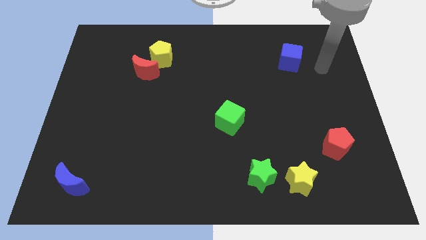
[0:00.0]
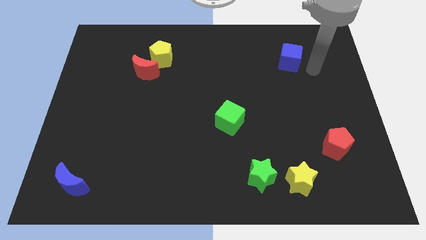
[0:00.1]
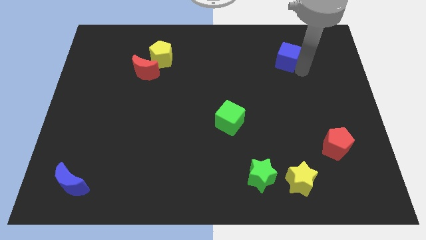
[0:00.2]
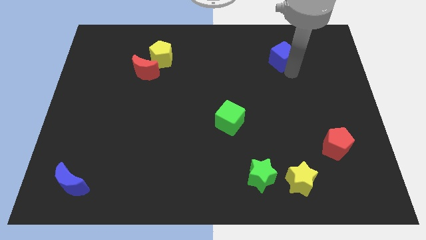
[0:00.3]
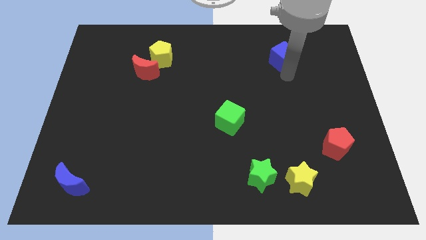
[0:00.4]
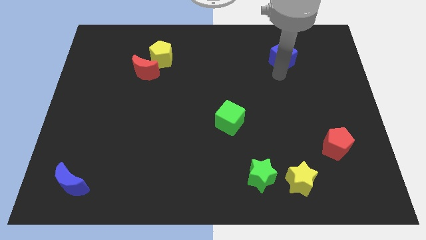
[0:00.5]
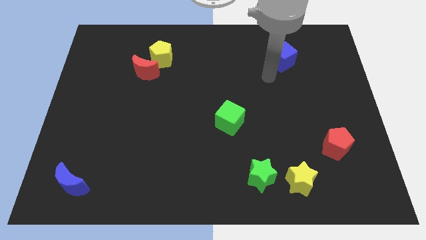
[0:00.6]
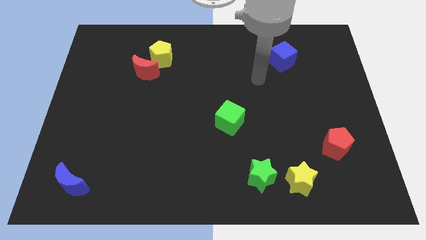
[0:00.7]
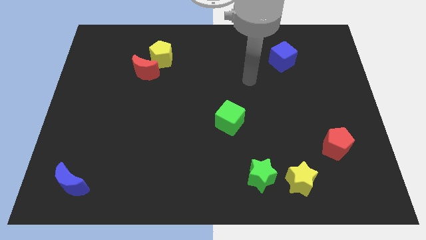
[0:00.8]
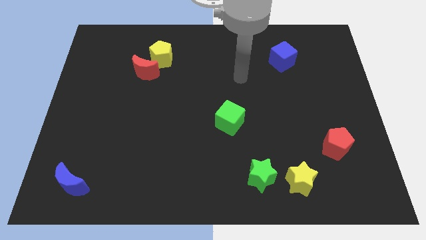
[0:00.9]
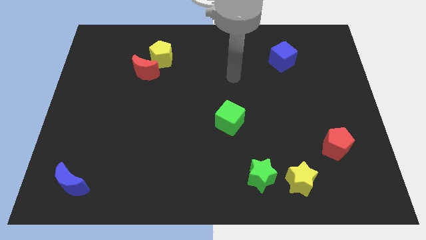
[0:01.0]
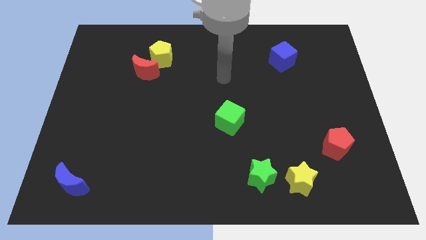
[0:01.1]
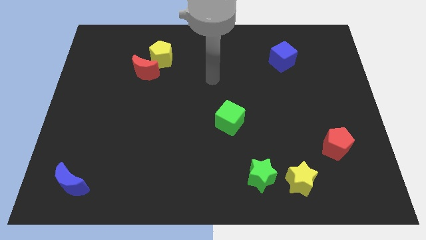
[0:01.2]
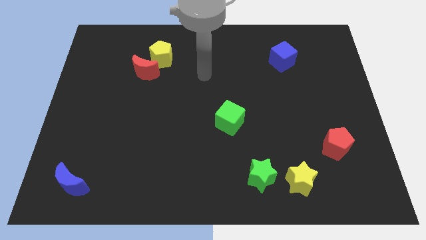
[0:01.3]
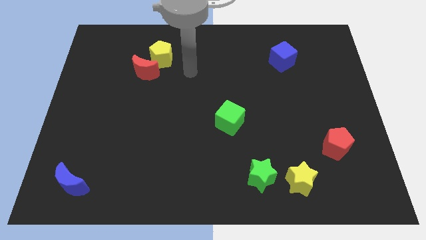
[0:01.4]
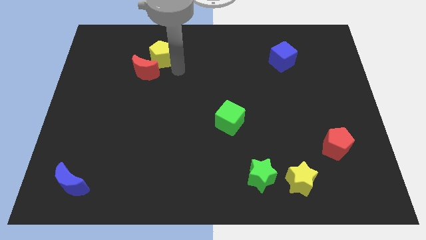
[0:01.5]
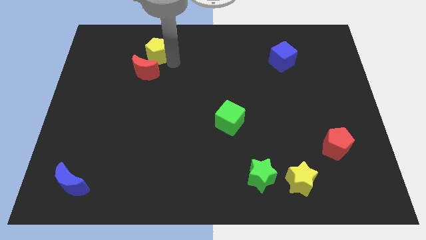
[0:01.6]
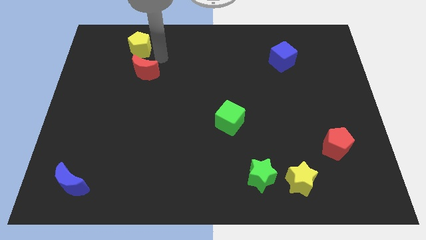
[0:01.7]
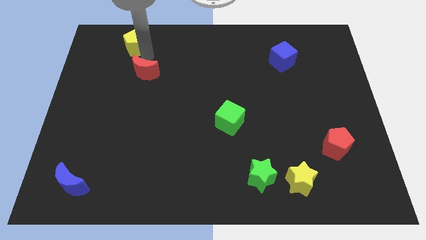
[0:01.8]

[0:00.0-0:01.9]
pull the red moon apart from the yellow pentagon

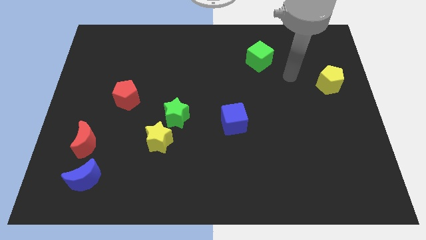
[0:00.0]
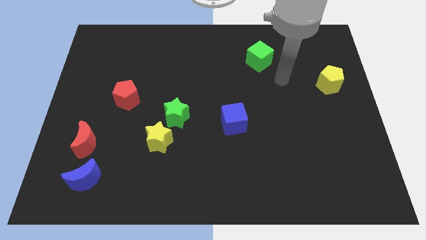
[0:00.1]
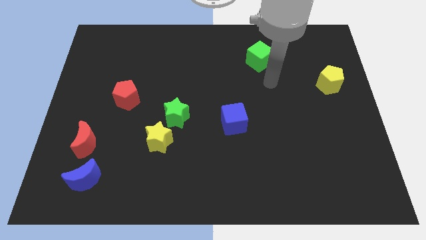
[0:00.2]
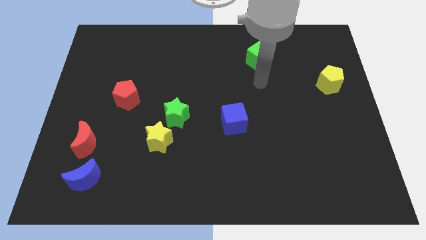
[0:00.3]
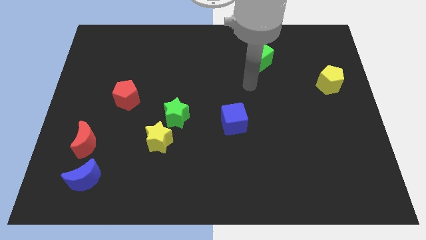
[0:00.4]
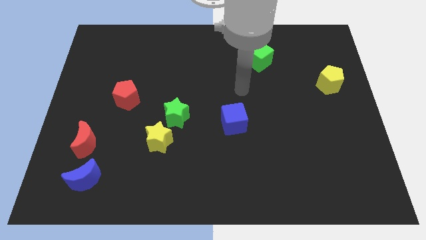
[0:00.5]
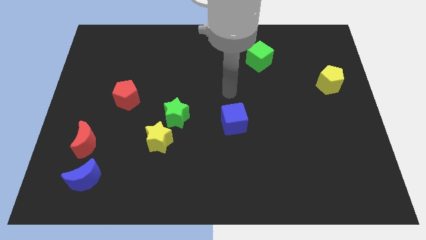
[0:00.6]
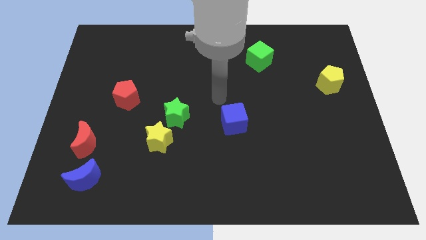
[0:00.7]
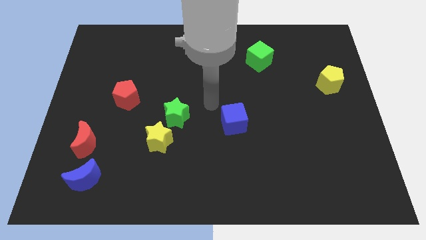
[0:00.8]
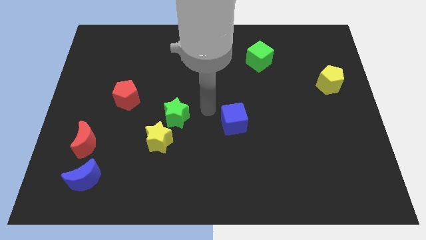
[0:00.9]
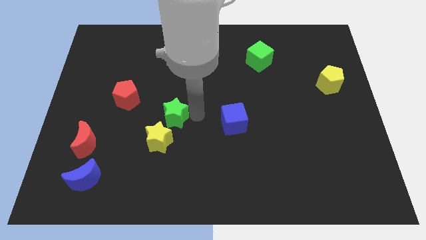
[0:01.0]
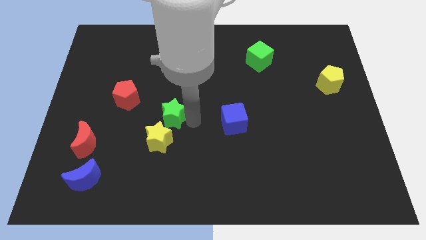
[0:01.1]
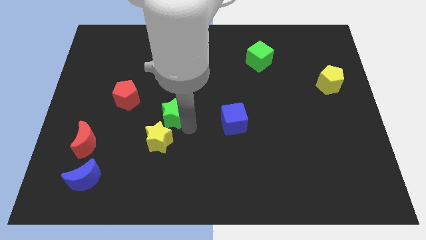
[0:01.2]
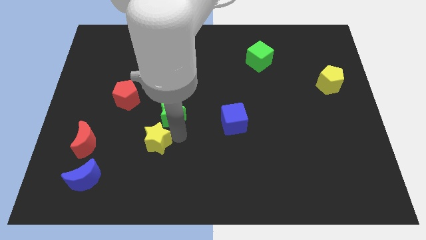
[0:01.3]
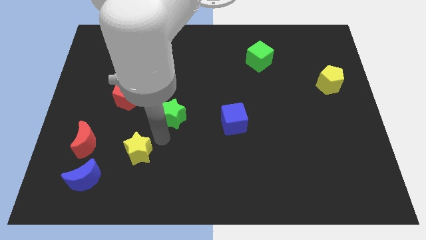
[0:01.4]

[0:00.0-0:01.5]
separate the green star from the yellow star

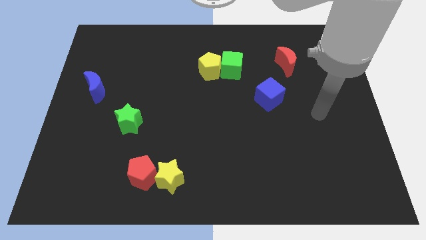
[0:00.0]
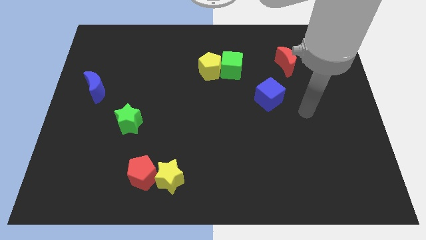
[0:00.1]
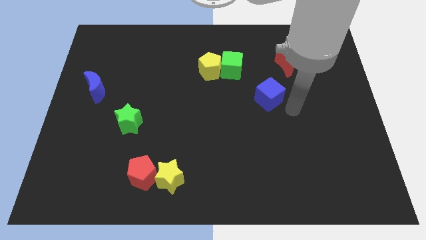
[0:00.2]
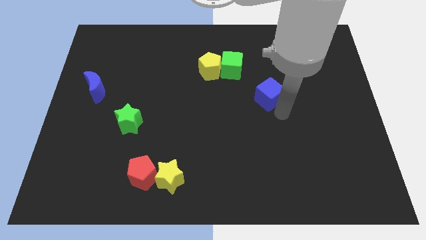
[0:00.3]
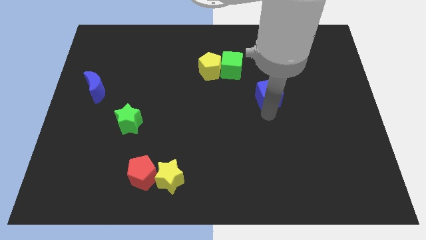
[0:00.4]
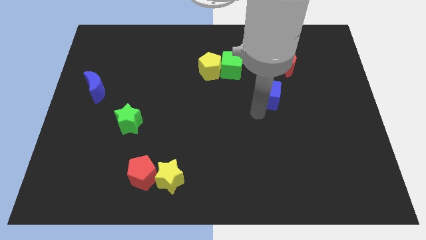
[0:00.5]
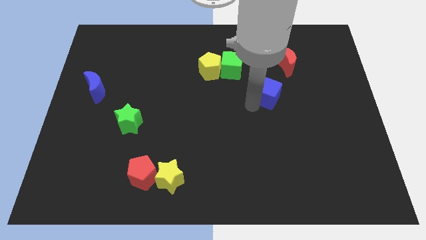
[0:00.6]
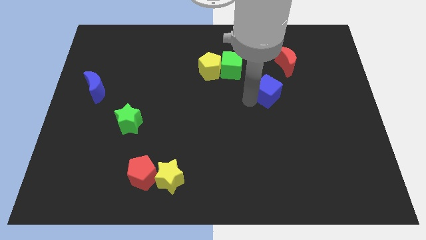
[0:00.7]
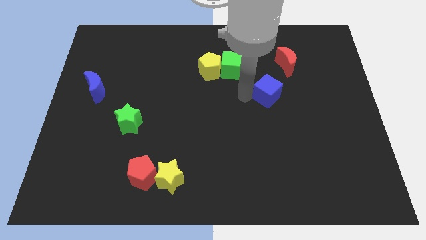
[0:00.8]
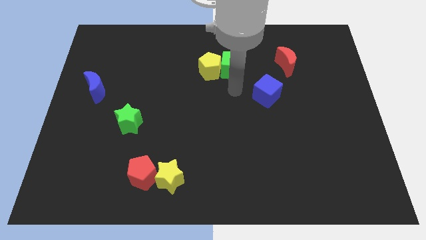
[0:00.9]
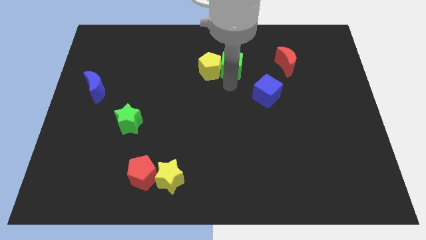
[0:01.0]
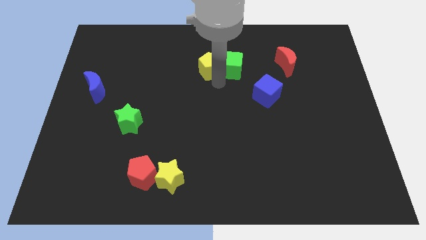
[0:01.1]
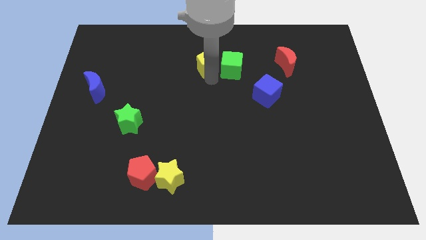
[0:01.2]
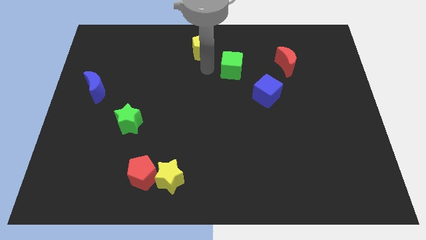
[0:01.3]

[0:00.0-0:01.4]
move the green cube away from the yellow pentagon

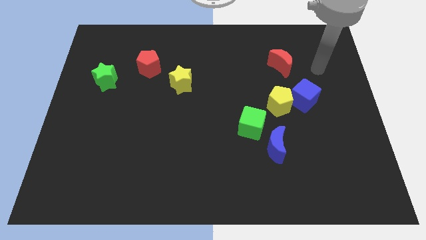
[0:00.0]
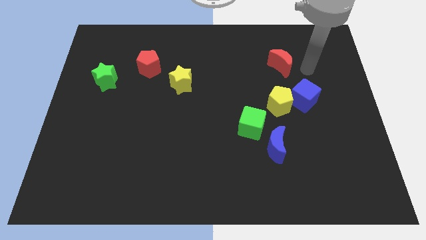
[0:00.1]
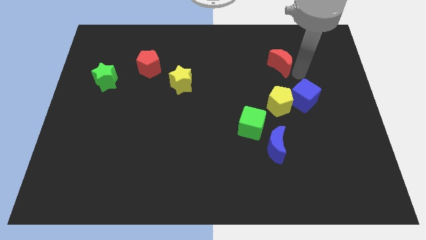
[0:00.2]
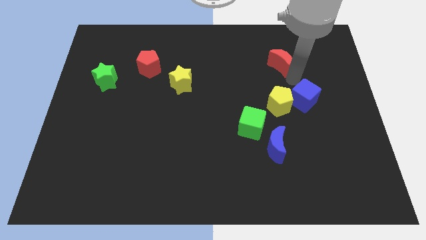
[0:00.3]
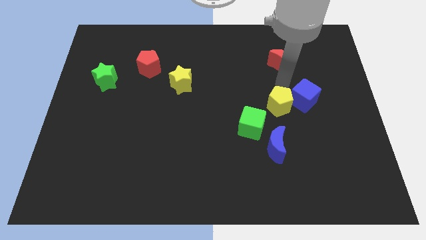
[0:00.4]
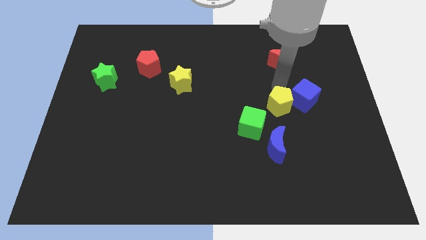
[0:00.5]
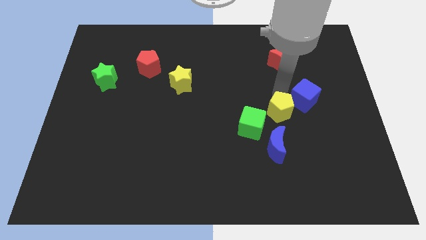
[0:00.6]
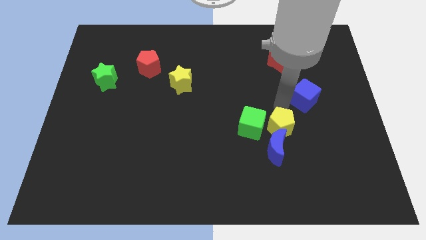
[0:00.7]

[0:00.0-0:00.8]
move the blue cube away from the yellow pentagon

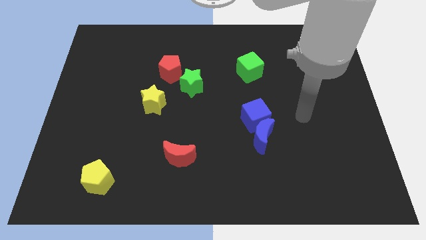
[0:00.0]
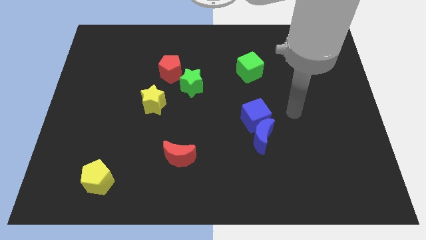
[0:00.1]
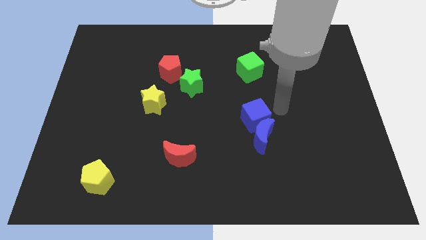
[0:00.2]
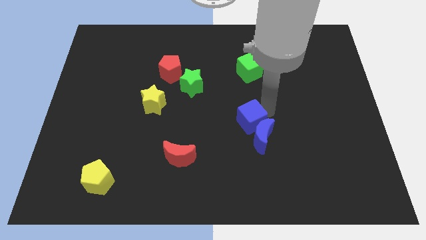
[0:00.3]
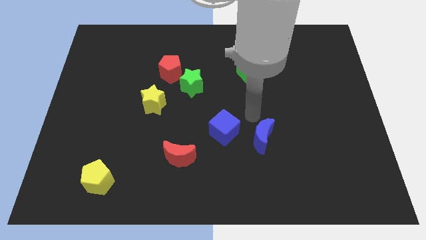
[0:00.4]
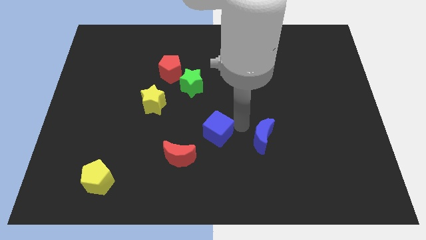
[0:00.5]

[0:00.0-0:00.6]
move the blue moon away from the blue cube

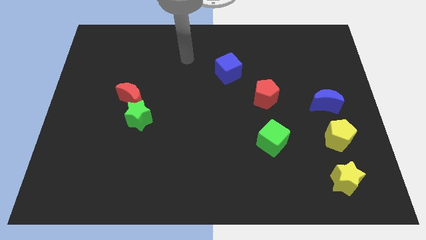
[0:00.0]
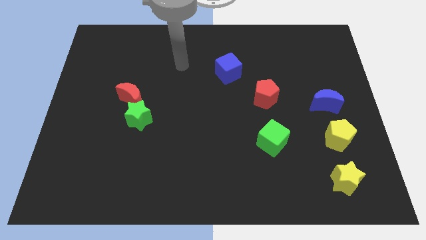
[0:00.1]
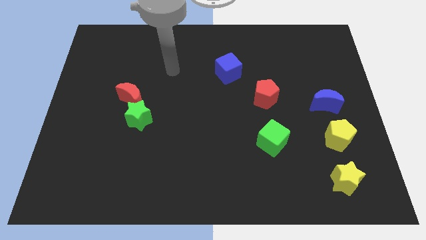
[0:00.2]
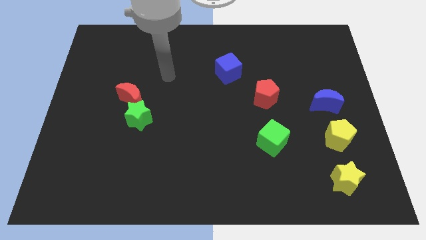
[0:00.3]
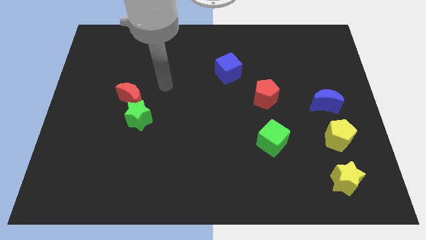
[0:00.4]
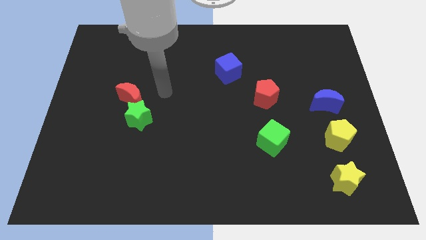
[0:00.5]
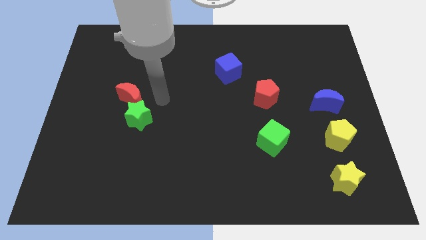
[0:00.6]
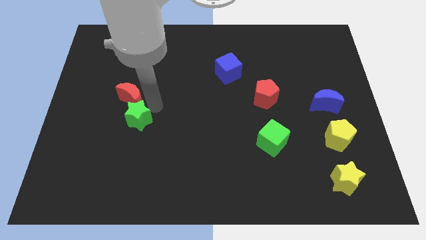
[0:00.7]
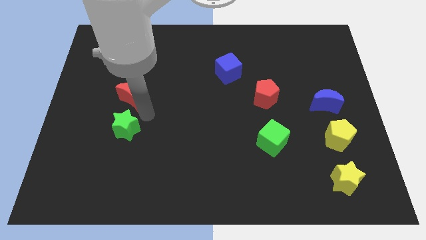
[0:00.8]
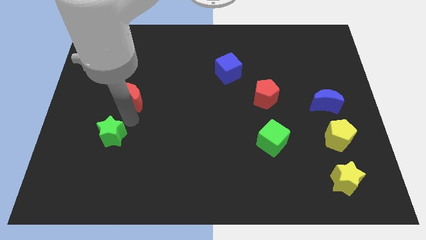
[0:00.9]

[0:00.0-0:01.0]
pull the red moon apart from the green star

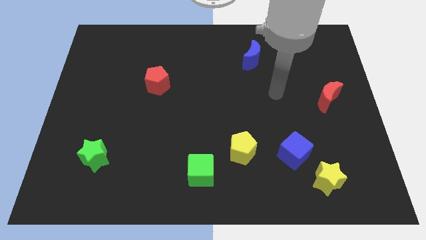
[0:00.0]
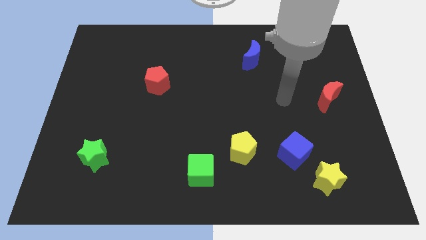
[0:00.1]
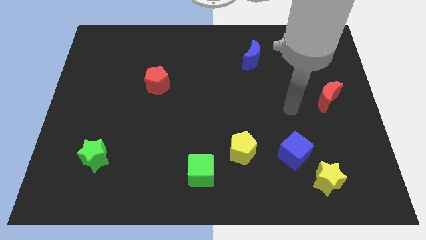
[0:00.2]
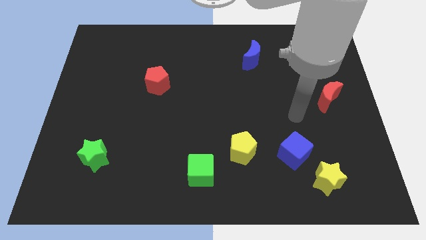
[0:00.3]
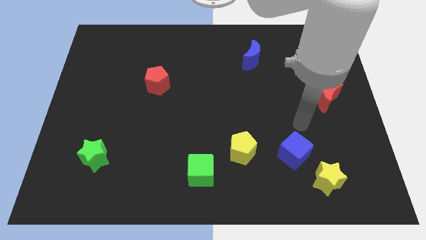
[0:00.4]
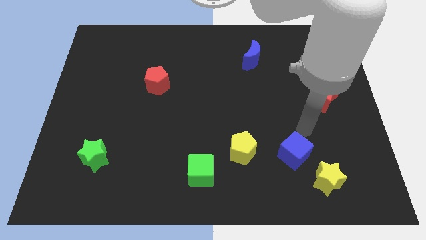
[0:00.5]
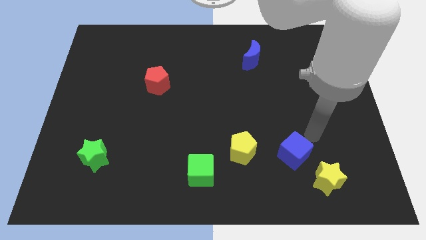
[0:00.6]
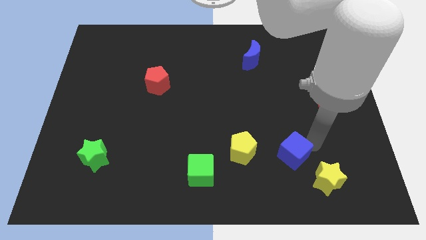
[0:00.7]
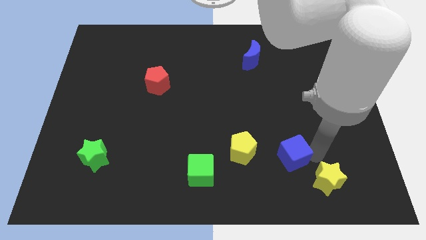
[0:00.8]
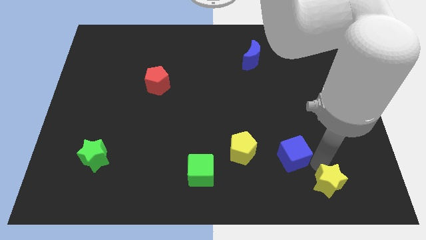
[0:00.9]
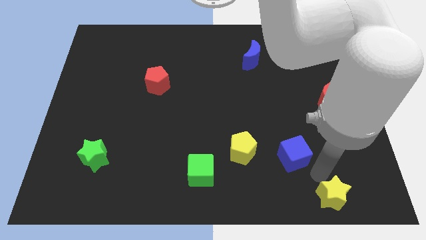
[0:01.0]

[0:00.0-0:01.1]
move the blue cube away from the yellow star

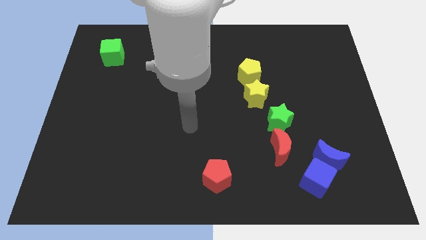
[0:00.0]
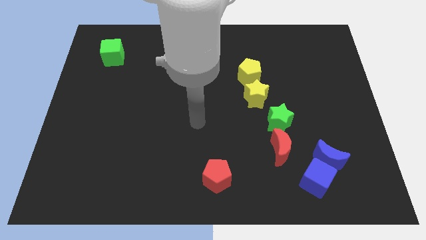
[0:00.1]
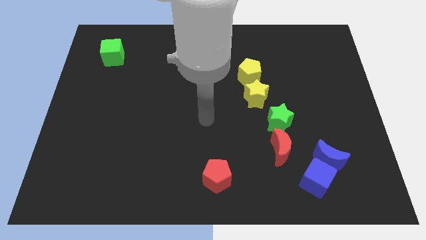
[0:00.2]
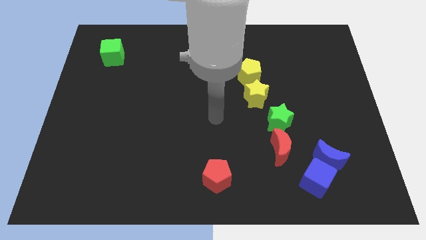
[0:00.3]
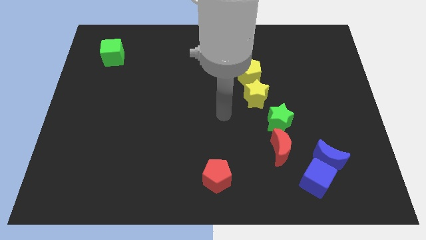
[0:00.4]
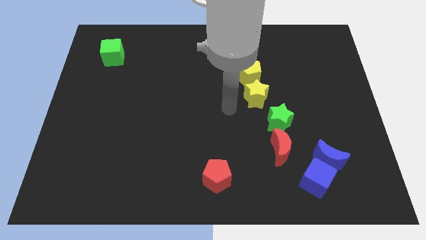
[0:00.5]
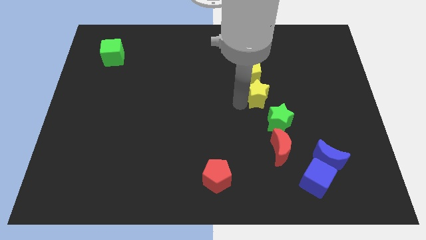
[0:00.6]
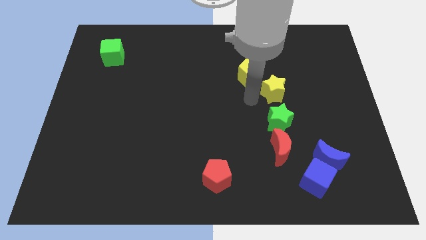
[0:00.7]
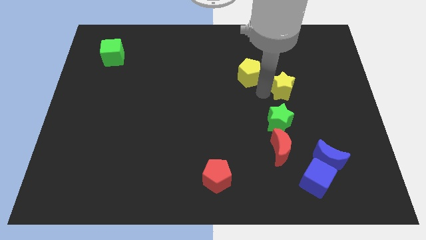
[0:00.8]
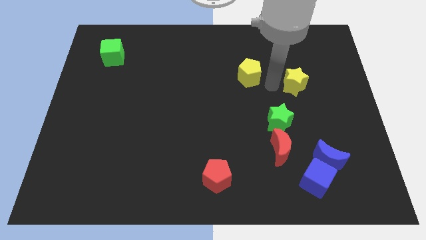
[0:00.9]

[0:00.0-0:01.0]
pull the yellow pentagon apart from the yellow star
